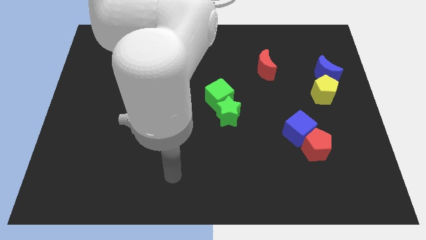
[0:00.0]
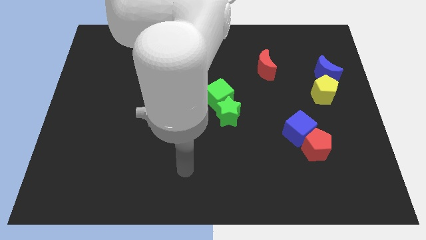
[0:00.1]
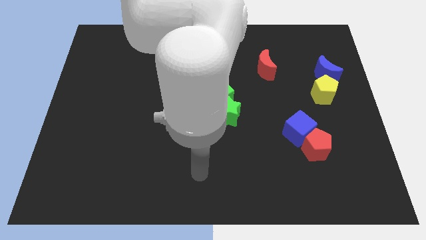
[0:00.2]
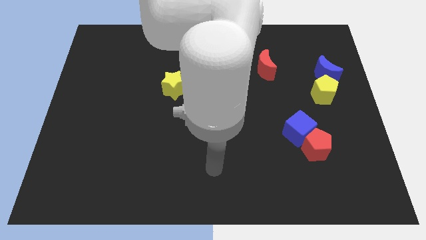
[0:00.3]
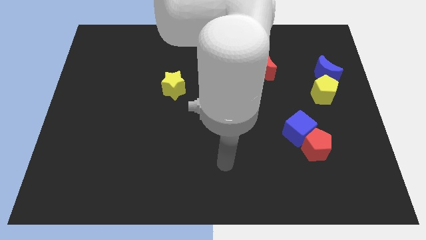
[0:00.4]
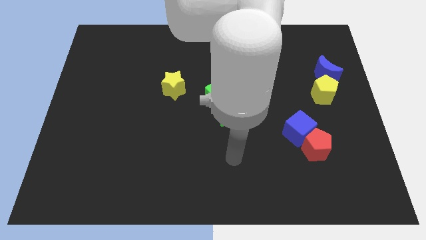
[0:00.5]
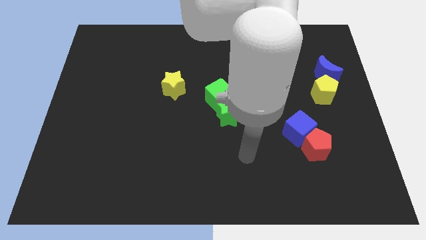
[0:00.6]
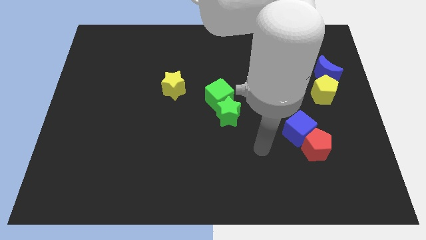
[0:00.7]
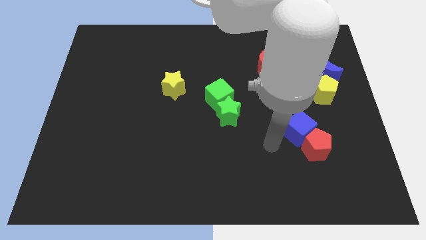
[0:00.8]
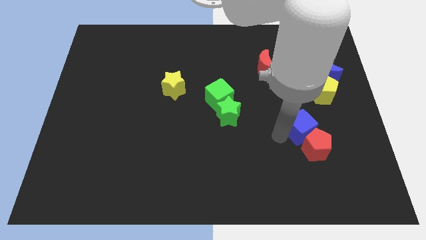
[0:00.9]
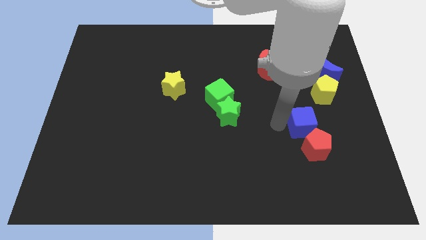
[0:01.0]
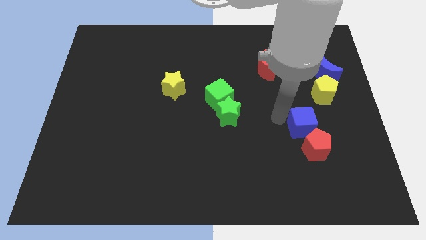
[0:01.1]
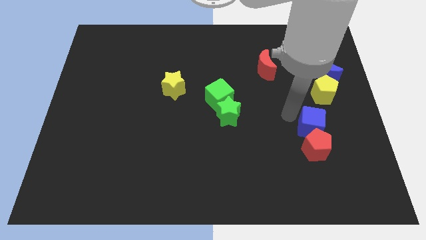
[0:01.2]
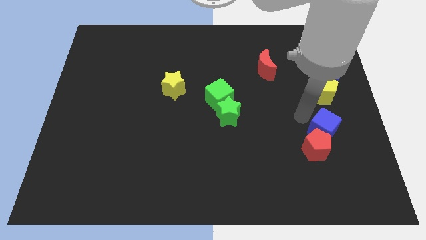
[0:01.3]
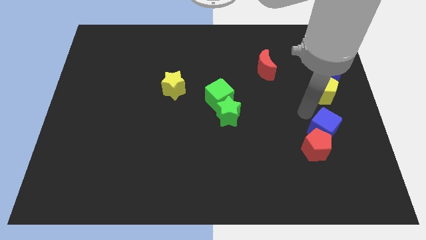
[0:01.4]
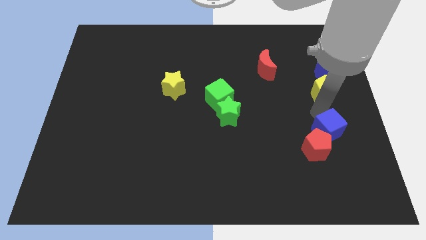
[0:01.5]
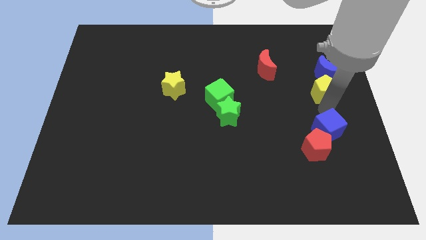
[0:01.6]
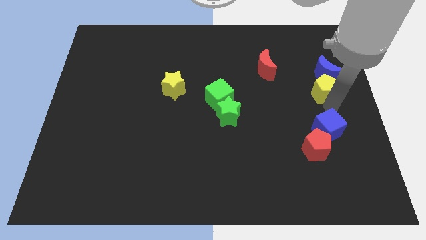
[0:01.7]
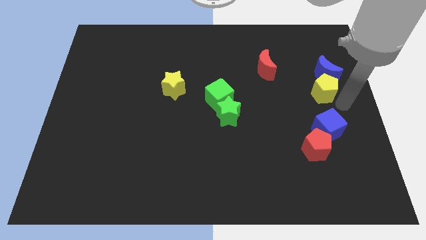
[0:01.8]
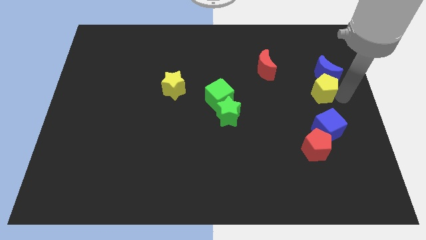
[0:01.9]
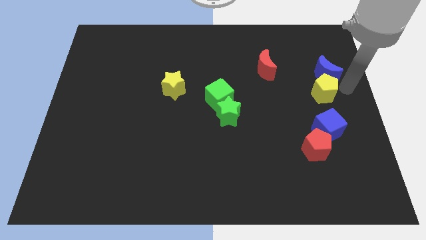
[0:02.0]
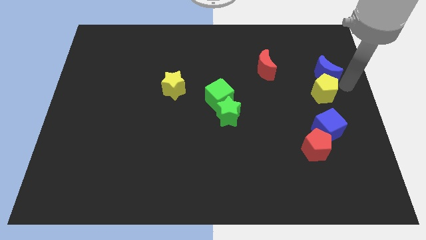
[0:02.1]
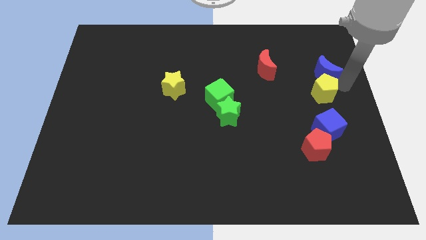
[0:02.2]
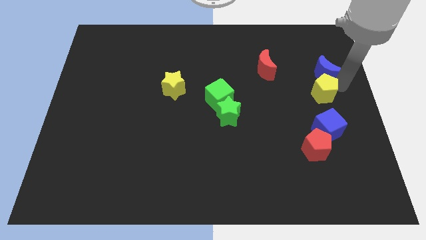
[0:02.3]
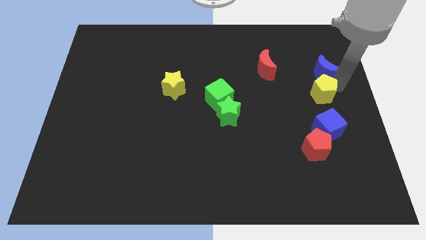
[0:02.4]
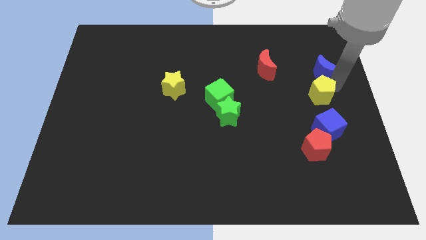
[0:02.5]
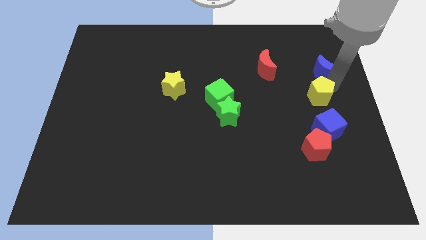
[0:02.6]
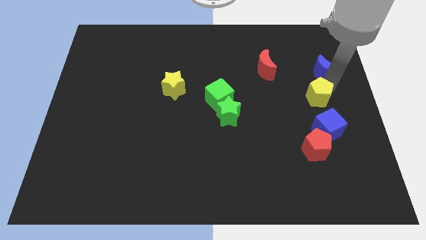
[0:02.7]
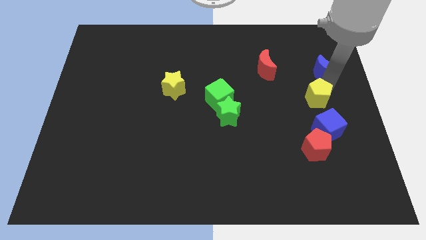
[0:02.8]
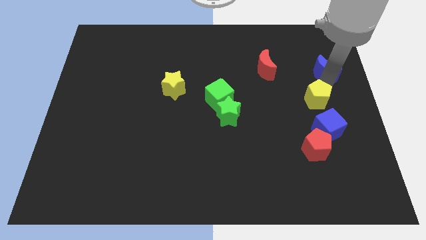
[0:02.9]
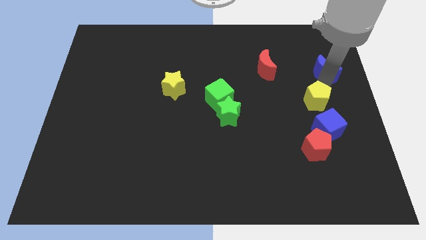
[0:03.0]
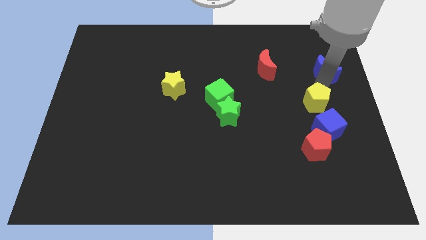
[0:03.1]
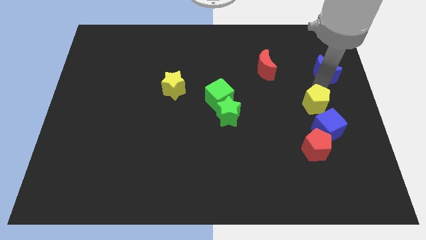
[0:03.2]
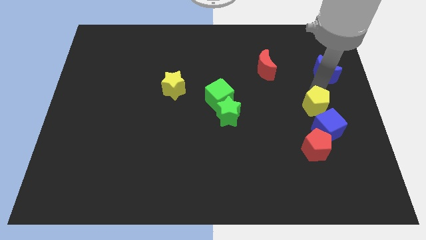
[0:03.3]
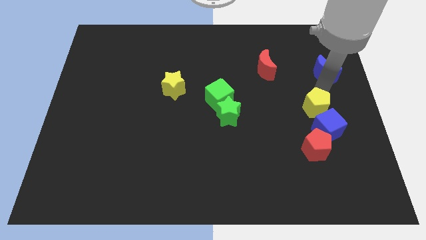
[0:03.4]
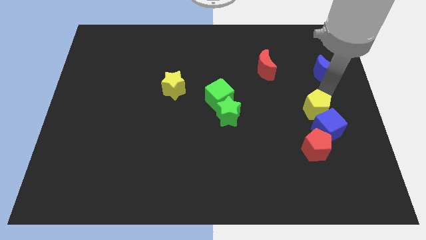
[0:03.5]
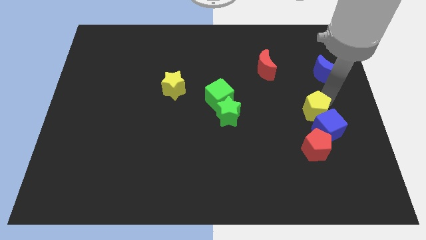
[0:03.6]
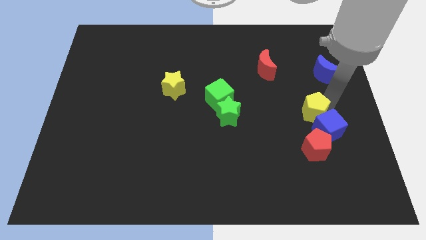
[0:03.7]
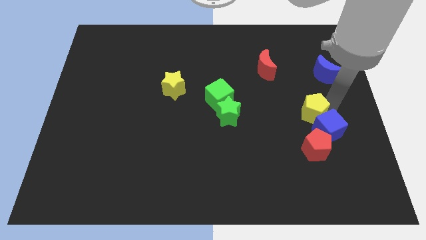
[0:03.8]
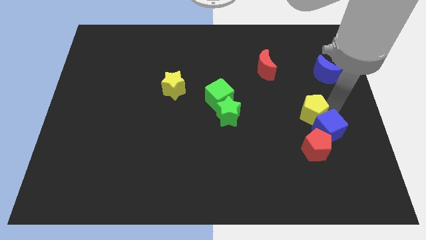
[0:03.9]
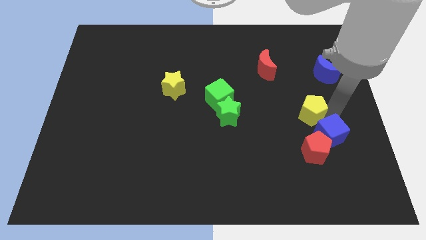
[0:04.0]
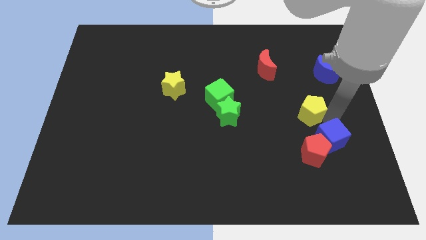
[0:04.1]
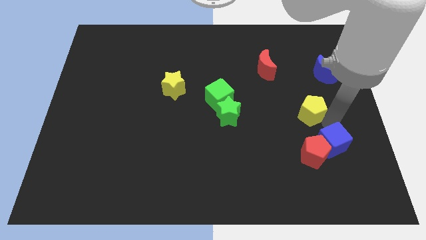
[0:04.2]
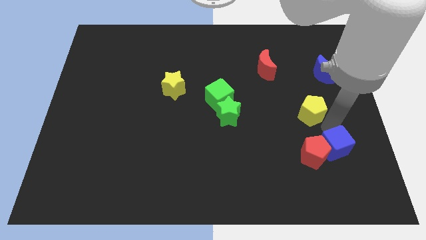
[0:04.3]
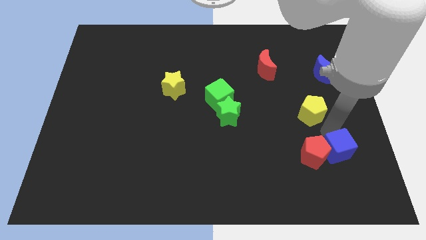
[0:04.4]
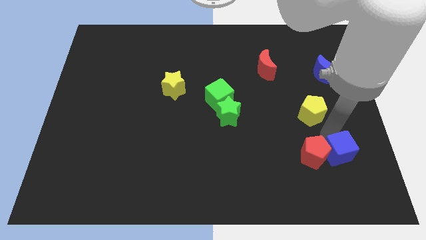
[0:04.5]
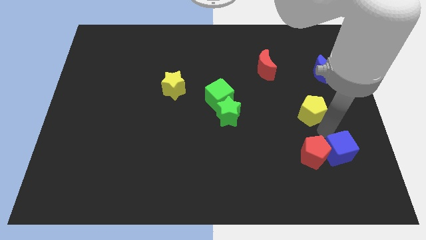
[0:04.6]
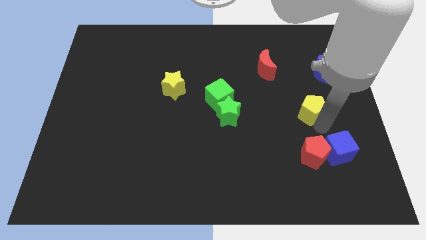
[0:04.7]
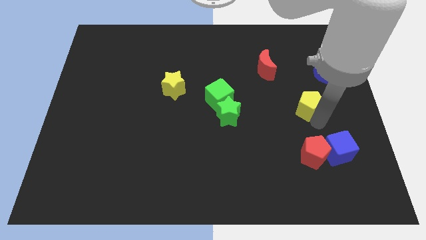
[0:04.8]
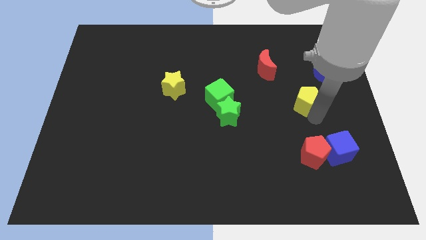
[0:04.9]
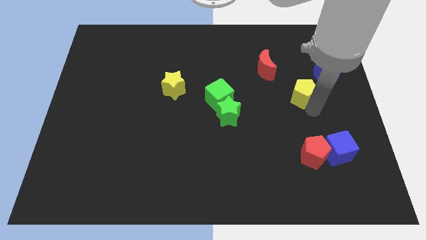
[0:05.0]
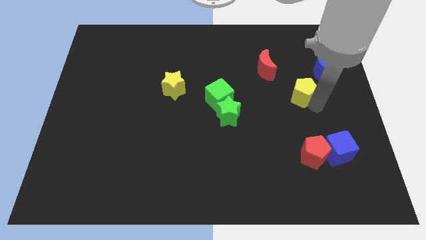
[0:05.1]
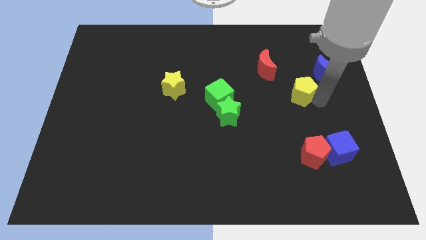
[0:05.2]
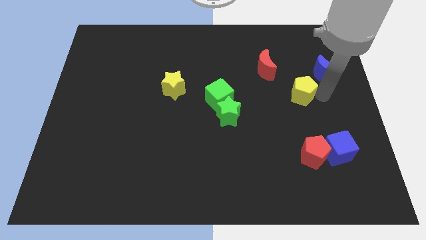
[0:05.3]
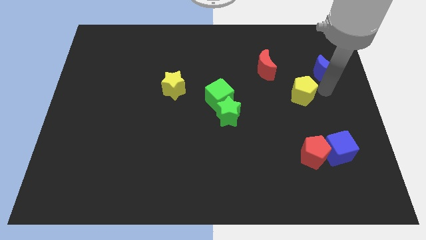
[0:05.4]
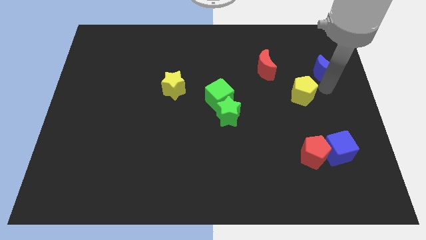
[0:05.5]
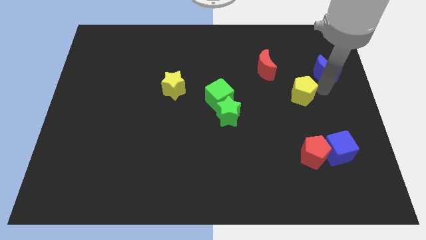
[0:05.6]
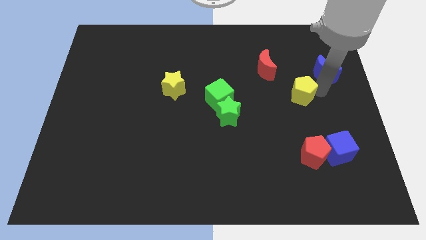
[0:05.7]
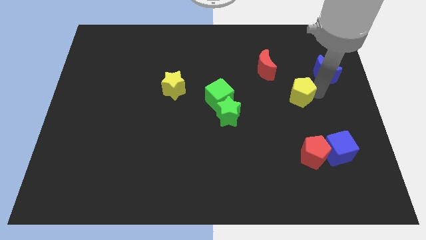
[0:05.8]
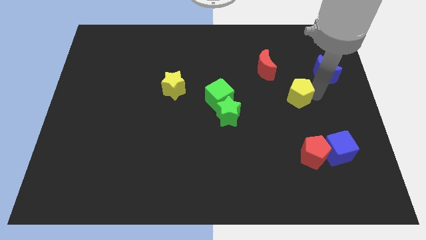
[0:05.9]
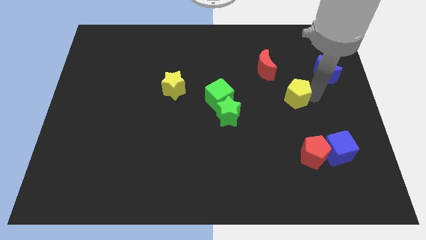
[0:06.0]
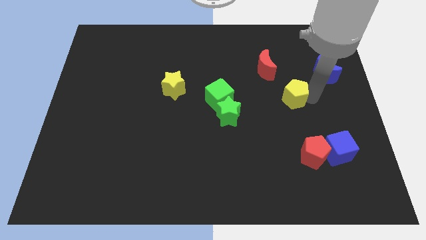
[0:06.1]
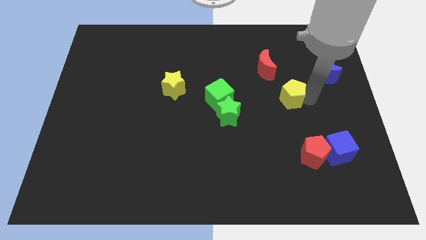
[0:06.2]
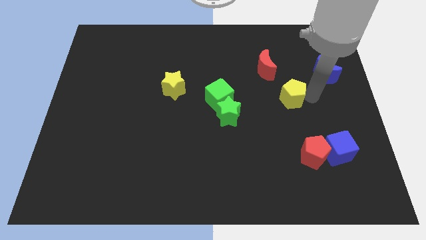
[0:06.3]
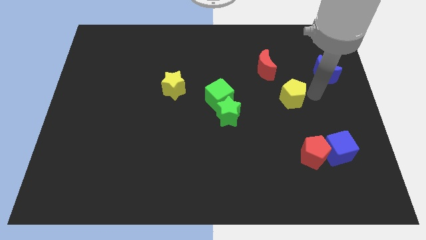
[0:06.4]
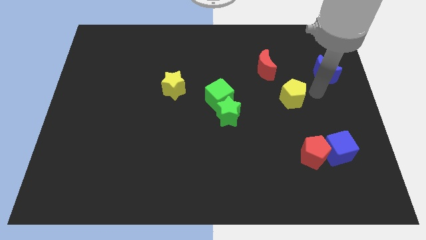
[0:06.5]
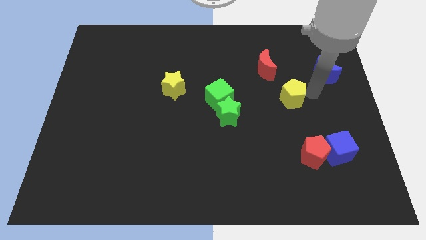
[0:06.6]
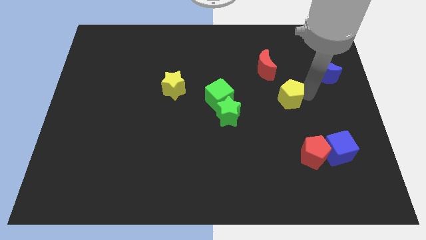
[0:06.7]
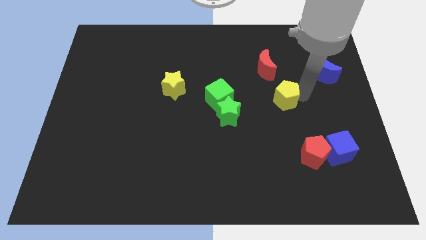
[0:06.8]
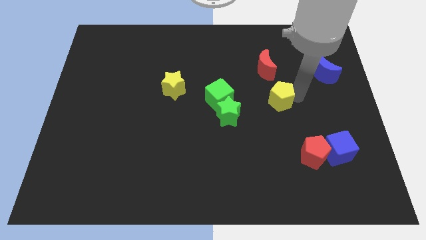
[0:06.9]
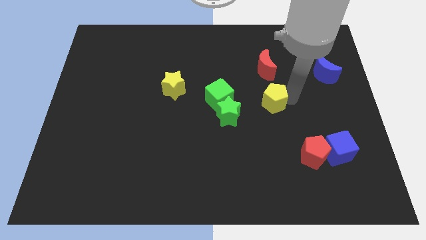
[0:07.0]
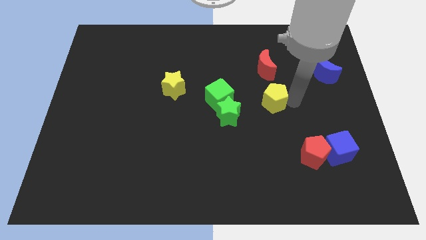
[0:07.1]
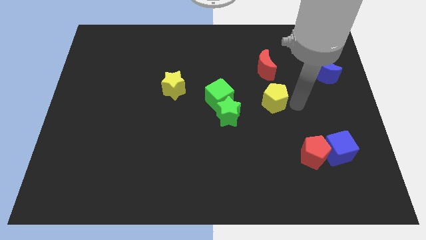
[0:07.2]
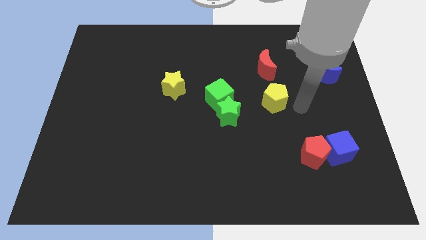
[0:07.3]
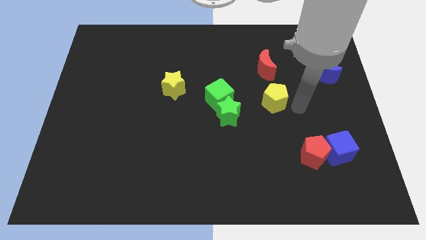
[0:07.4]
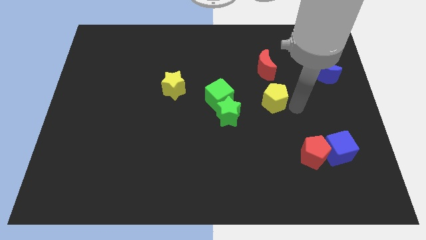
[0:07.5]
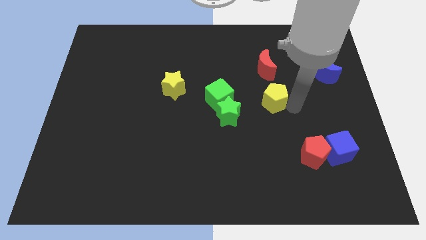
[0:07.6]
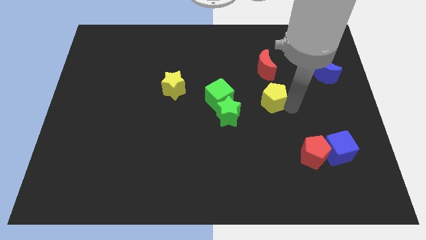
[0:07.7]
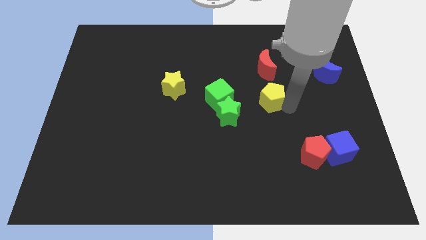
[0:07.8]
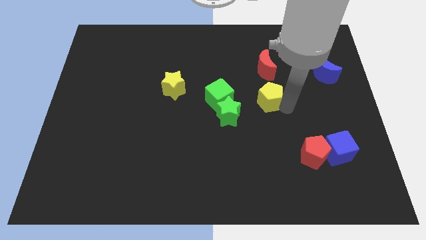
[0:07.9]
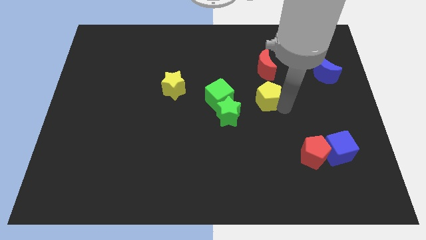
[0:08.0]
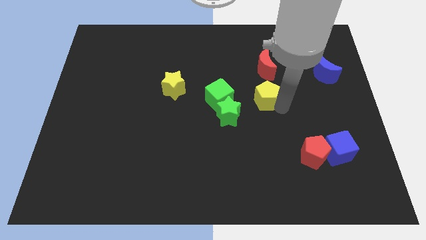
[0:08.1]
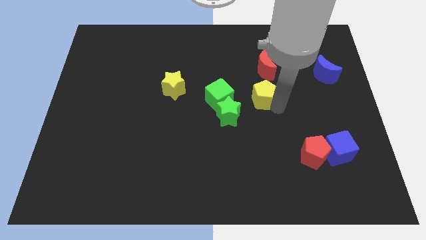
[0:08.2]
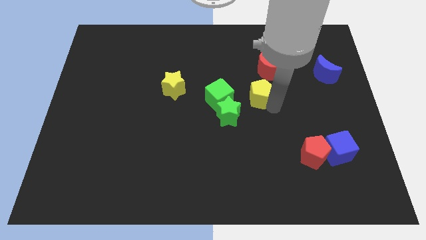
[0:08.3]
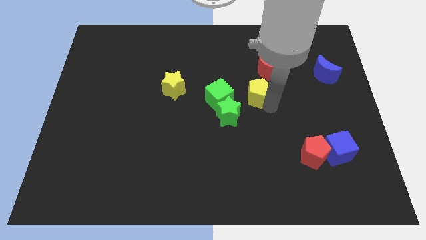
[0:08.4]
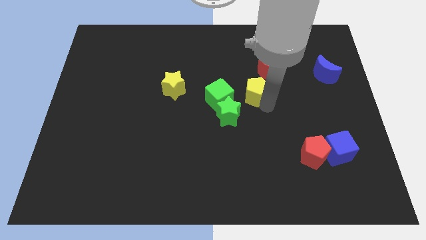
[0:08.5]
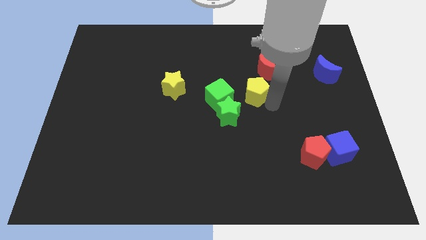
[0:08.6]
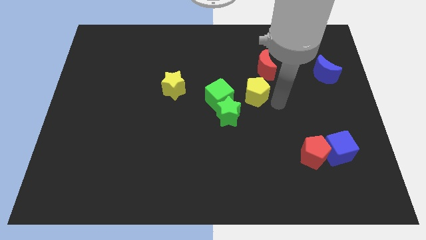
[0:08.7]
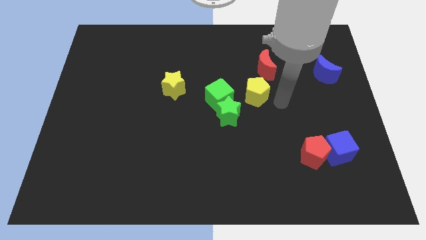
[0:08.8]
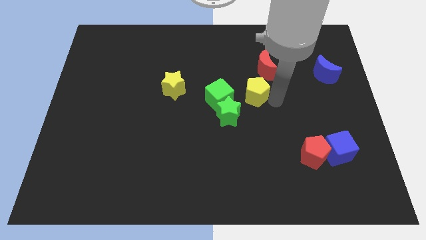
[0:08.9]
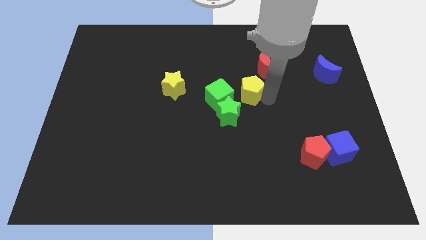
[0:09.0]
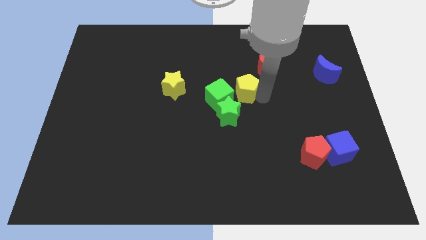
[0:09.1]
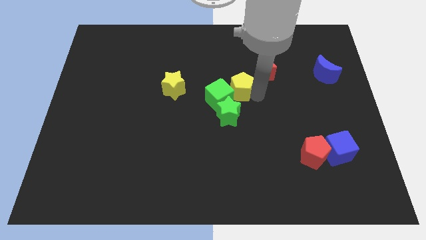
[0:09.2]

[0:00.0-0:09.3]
slide the yellow pentagon left
